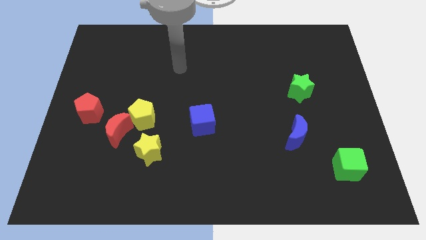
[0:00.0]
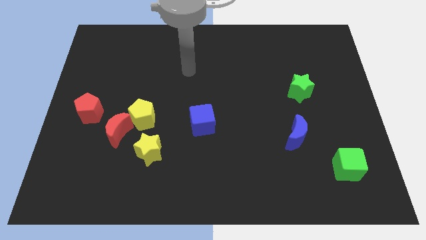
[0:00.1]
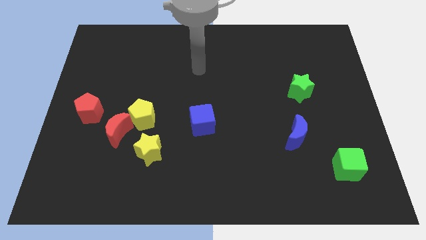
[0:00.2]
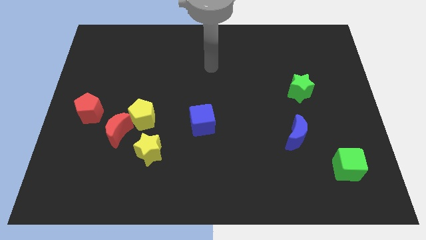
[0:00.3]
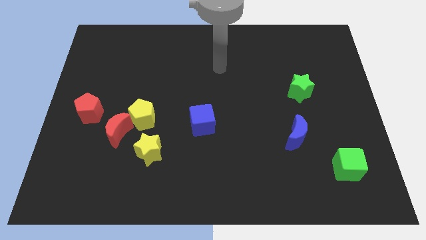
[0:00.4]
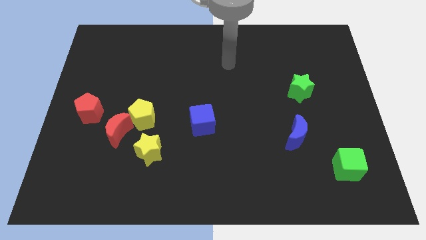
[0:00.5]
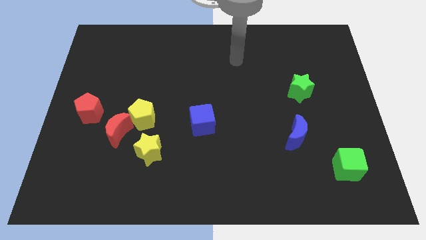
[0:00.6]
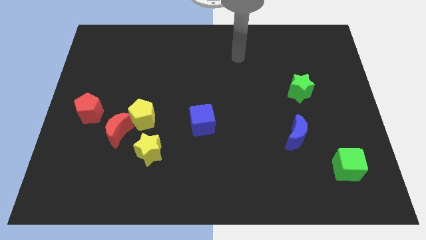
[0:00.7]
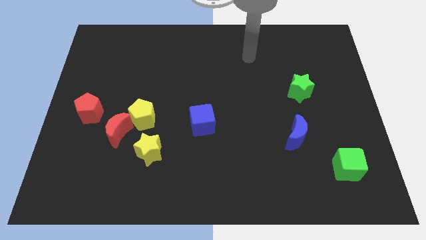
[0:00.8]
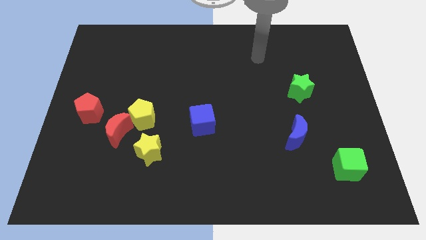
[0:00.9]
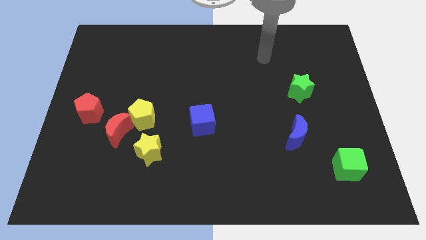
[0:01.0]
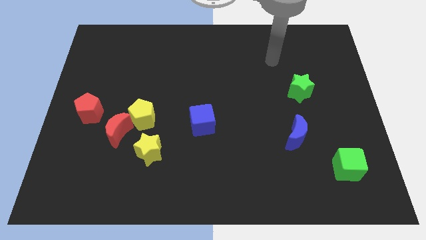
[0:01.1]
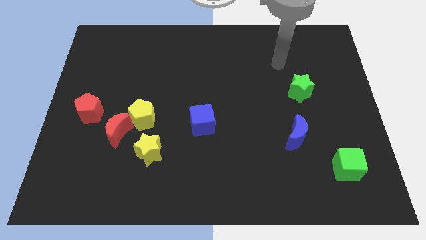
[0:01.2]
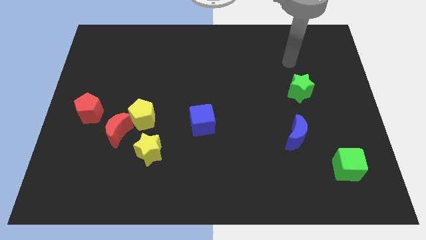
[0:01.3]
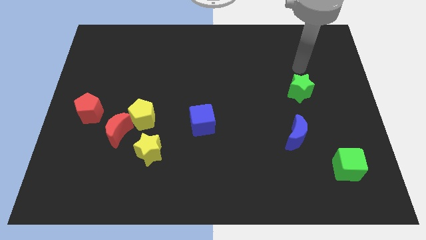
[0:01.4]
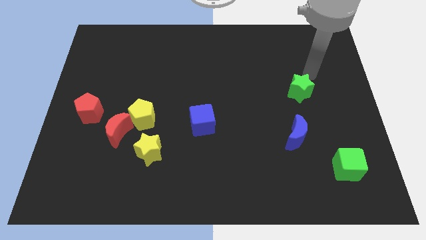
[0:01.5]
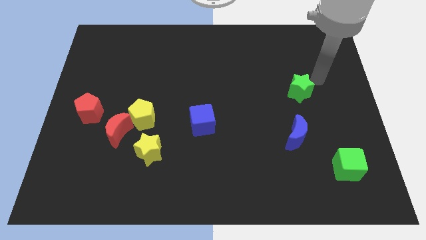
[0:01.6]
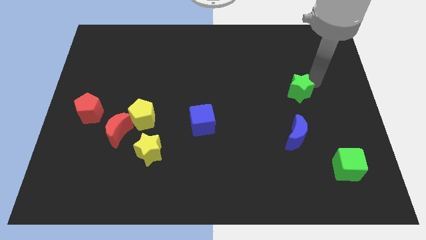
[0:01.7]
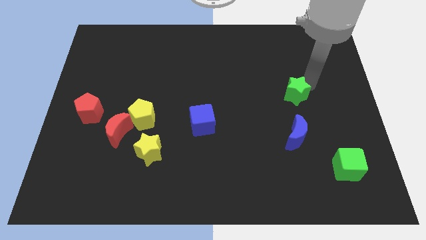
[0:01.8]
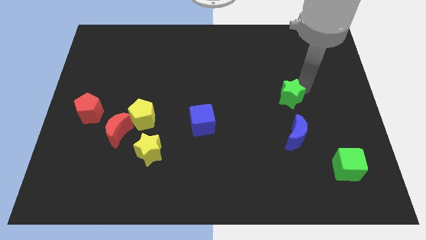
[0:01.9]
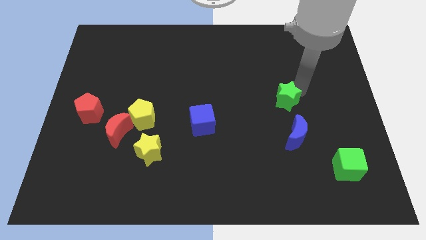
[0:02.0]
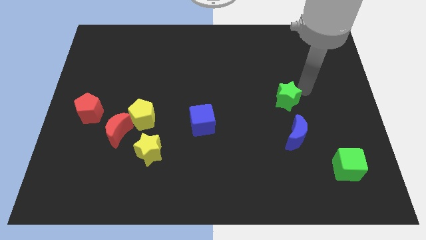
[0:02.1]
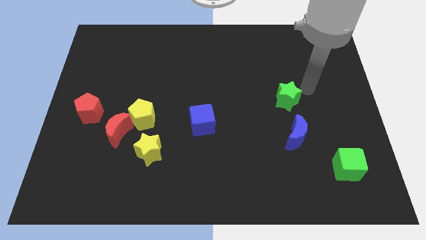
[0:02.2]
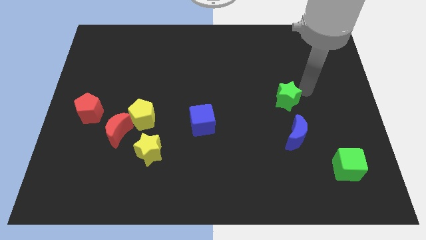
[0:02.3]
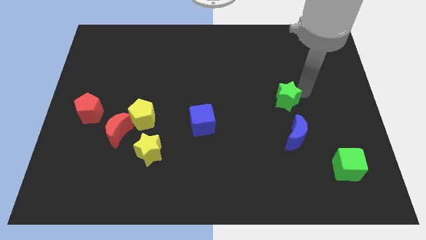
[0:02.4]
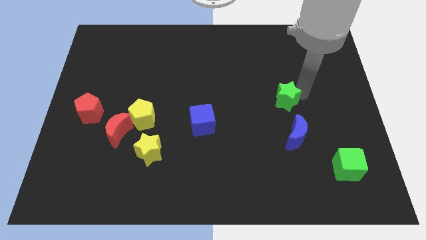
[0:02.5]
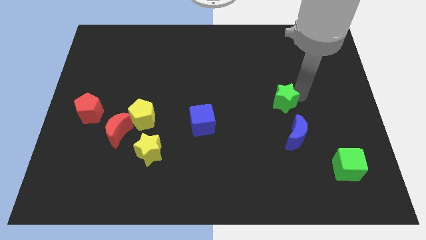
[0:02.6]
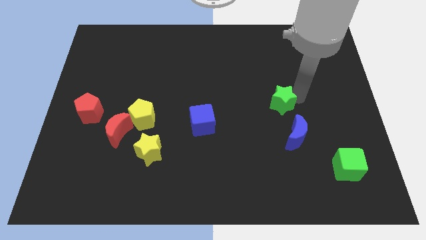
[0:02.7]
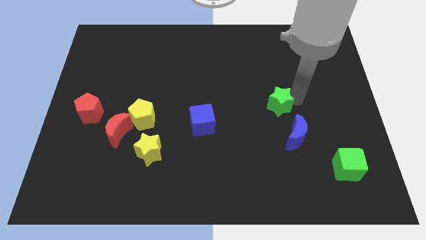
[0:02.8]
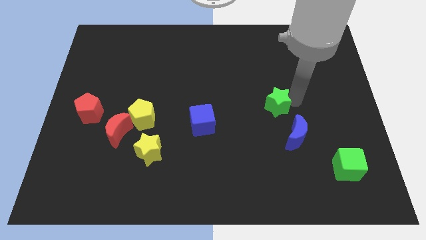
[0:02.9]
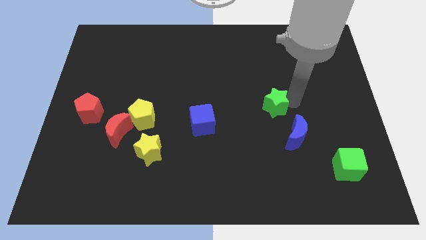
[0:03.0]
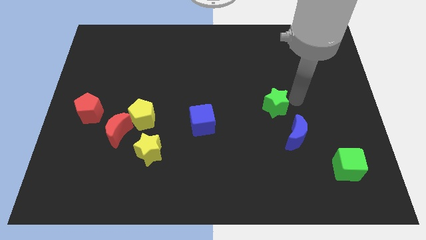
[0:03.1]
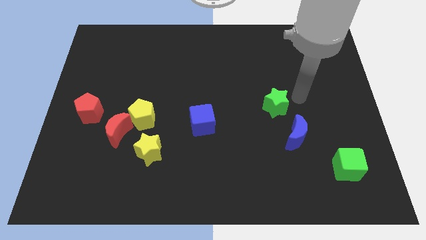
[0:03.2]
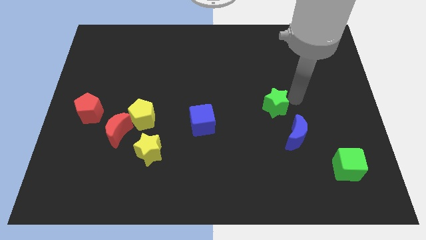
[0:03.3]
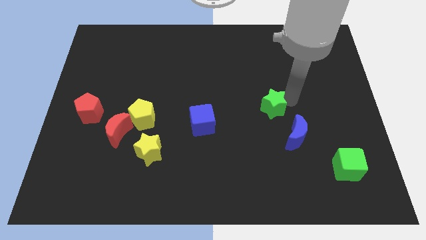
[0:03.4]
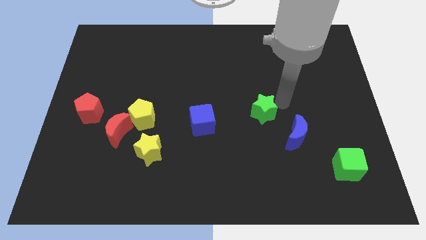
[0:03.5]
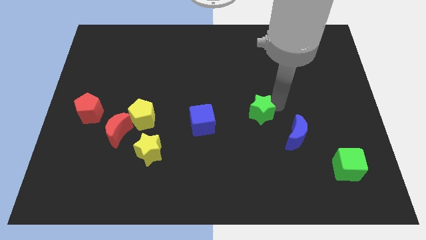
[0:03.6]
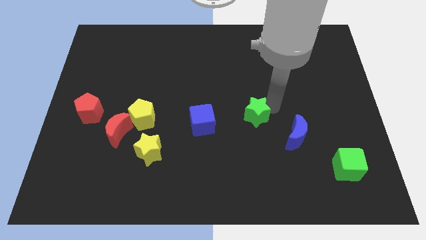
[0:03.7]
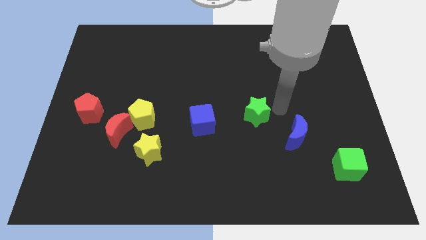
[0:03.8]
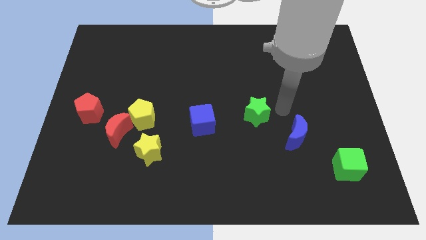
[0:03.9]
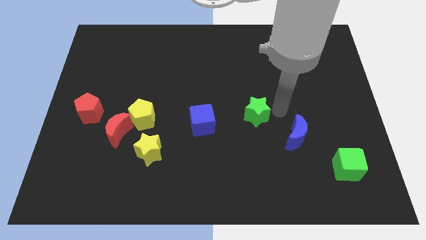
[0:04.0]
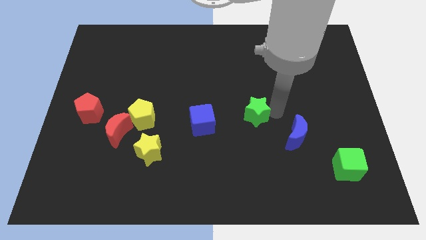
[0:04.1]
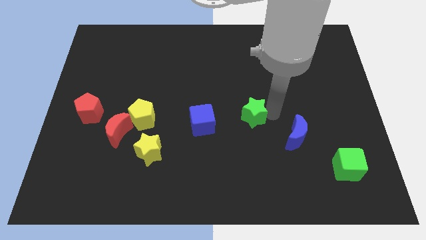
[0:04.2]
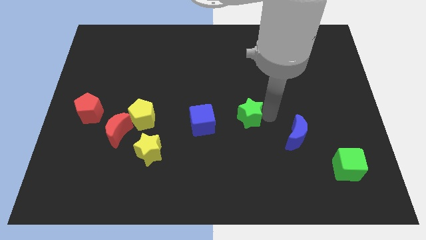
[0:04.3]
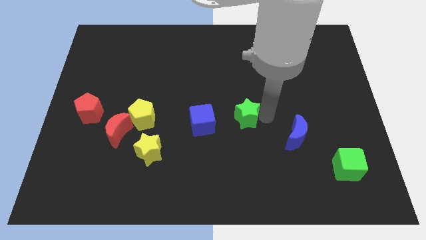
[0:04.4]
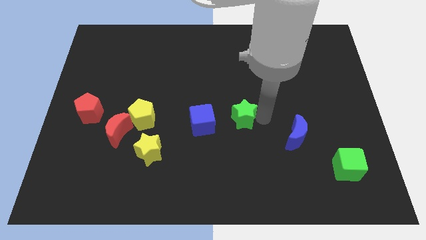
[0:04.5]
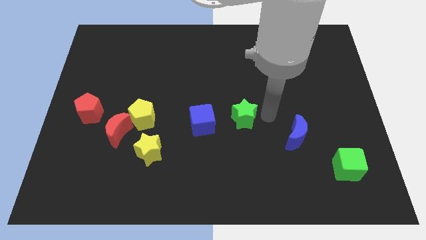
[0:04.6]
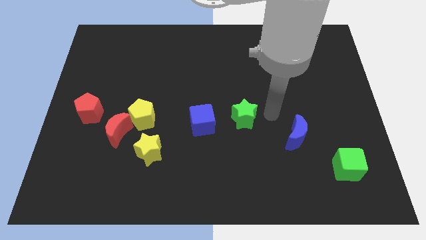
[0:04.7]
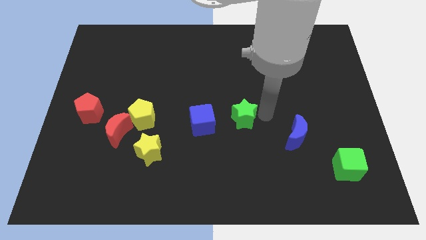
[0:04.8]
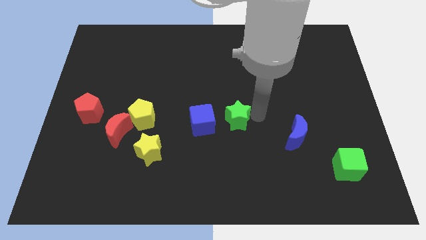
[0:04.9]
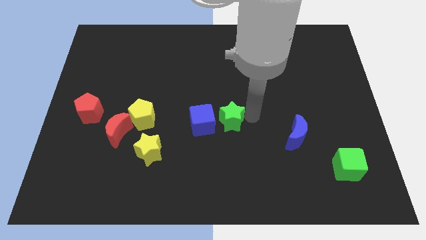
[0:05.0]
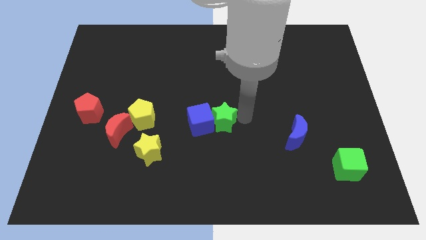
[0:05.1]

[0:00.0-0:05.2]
slide the green star to the blue cube

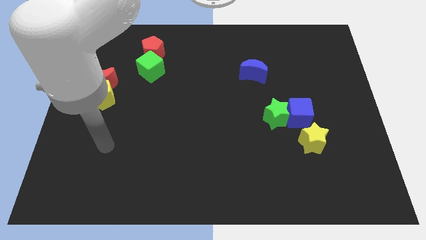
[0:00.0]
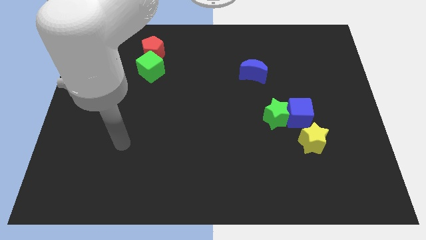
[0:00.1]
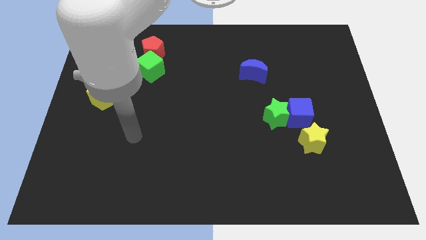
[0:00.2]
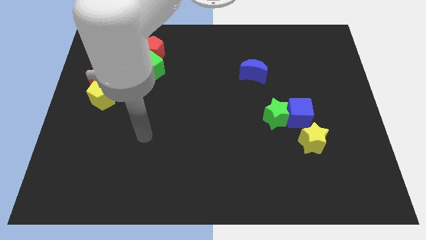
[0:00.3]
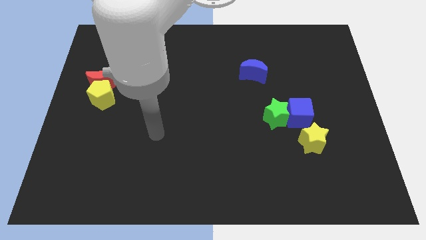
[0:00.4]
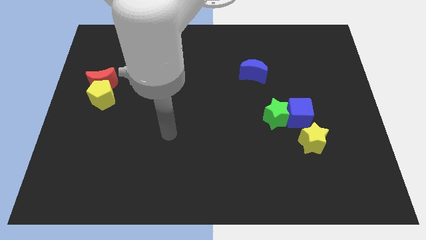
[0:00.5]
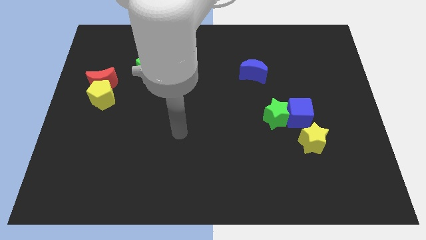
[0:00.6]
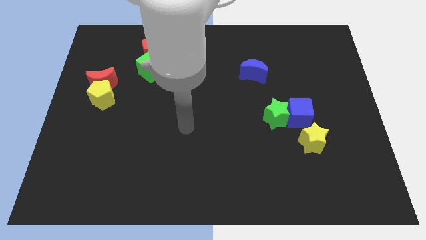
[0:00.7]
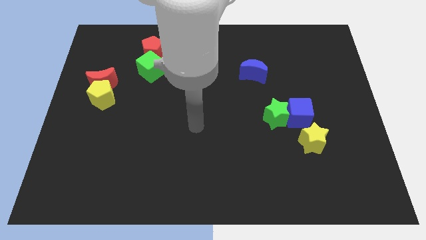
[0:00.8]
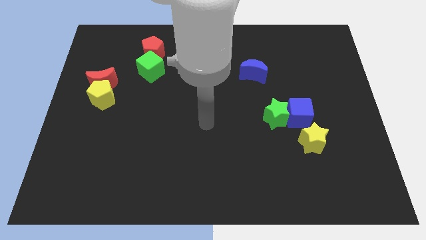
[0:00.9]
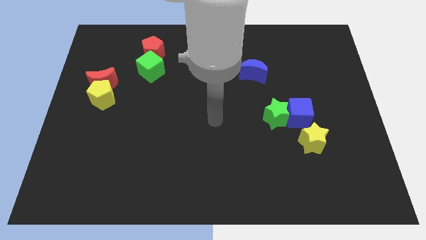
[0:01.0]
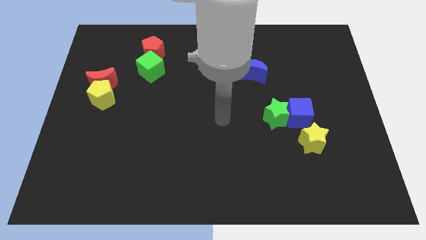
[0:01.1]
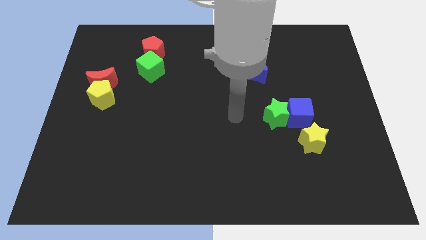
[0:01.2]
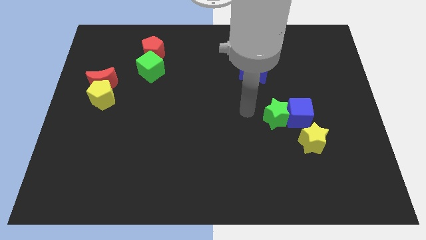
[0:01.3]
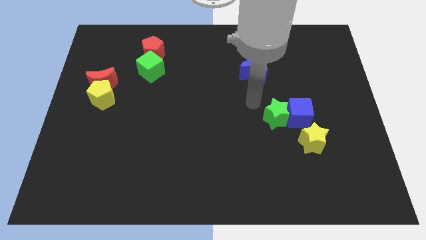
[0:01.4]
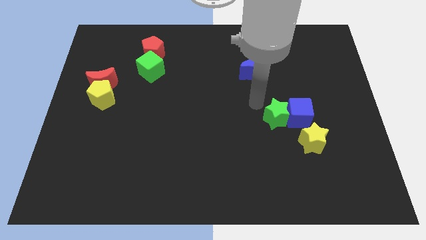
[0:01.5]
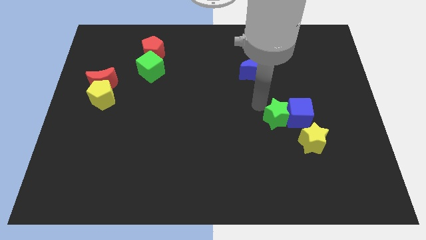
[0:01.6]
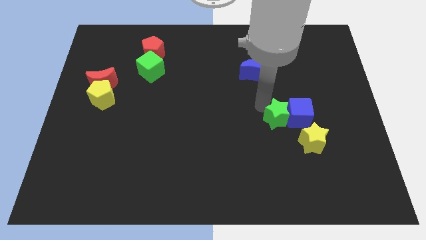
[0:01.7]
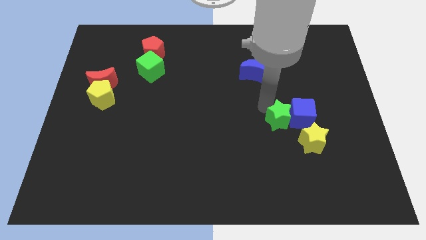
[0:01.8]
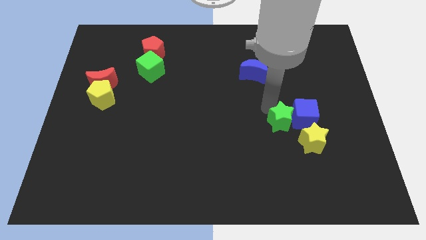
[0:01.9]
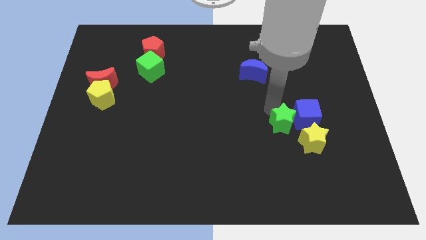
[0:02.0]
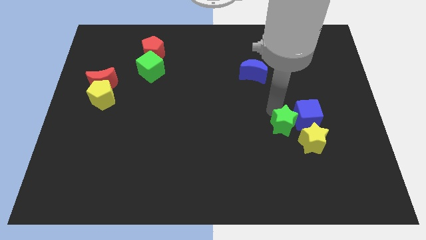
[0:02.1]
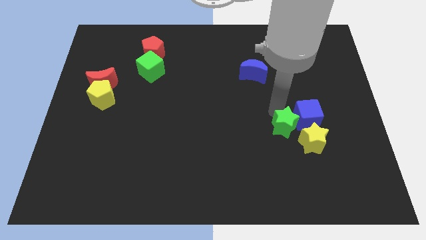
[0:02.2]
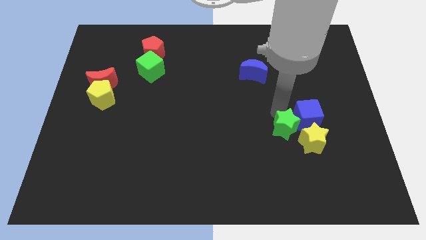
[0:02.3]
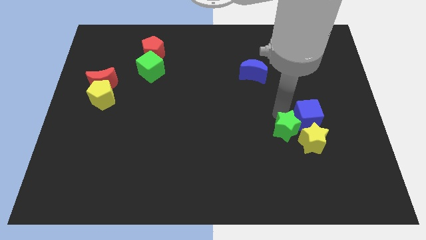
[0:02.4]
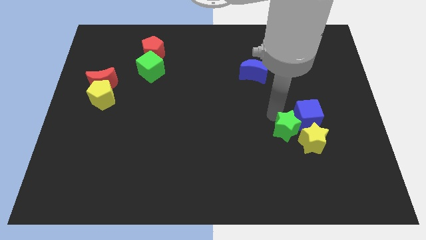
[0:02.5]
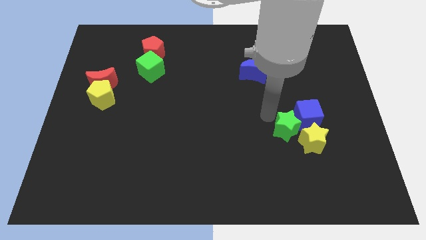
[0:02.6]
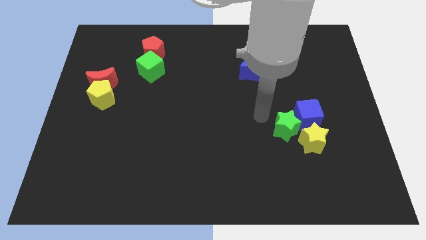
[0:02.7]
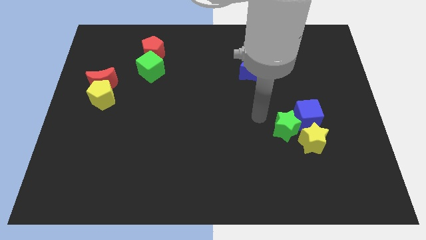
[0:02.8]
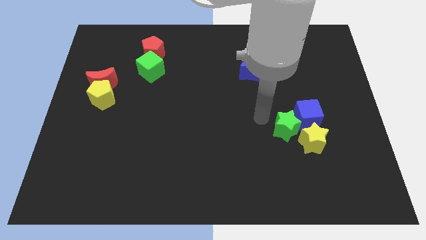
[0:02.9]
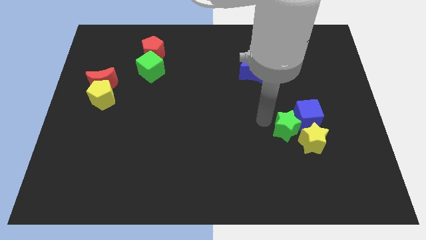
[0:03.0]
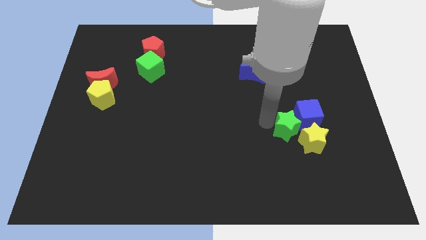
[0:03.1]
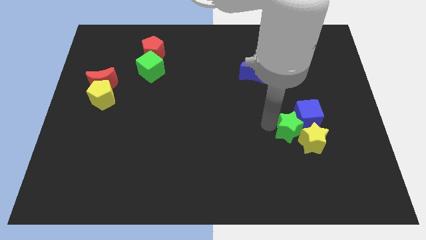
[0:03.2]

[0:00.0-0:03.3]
put the green star close to the yellow star
